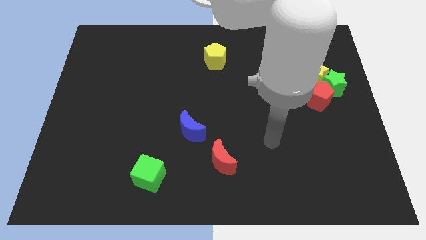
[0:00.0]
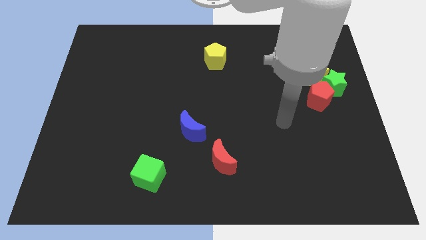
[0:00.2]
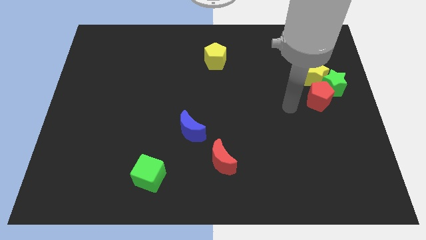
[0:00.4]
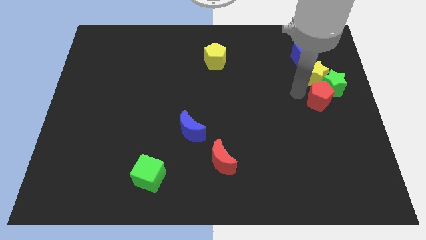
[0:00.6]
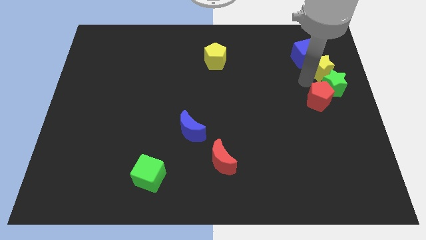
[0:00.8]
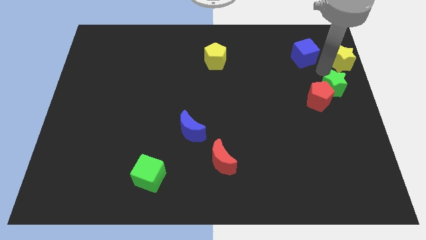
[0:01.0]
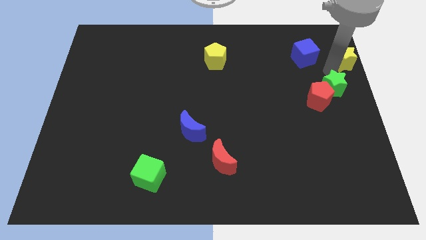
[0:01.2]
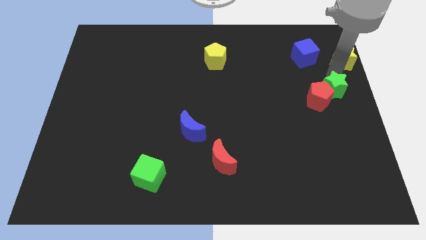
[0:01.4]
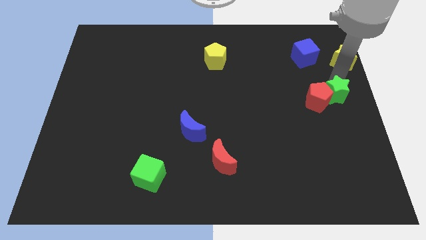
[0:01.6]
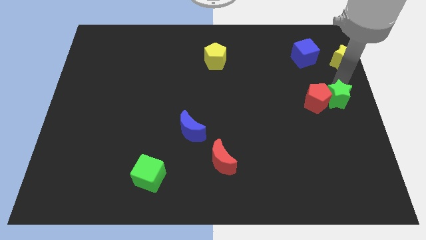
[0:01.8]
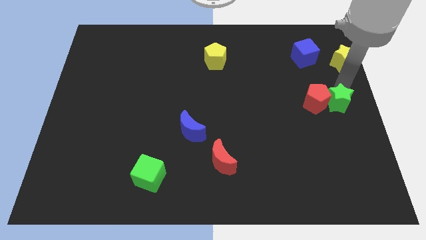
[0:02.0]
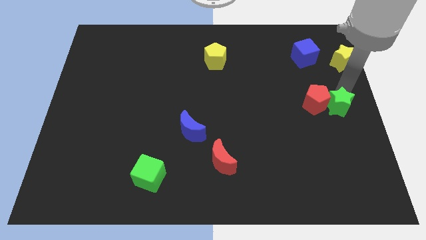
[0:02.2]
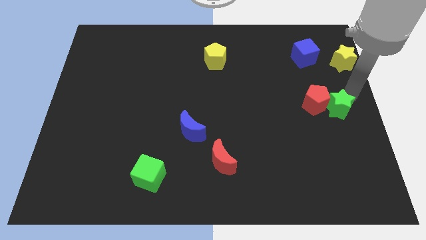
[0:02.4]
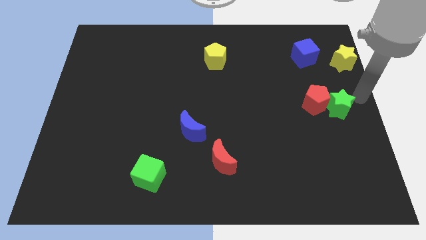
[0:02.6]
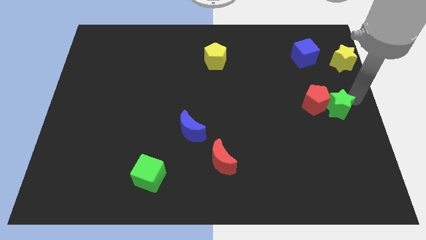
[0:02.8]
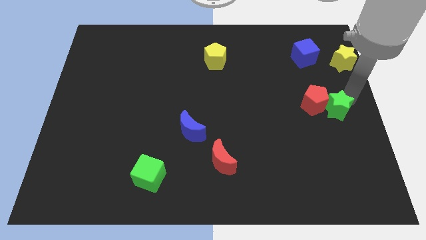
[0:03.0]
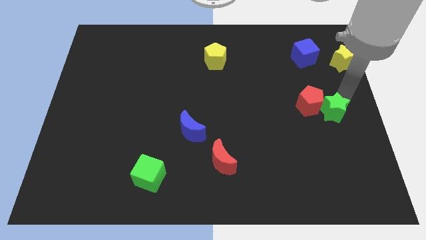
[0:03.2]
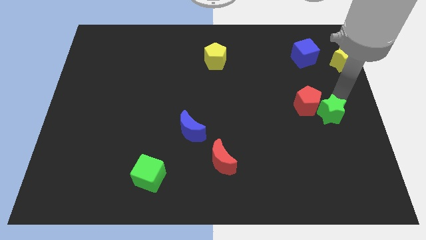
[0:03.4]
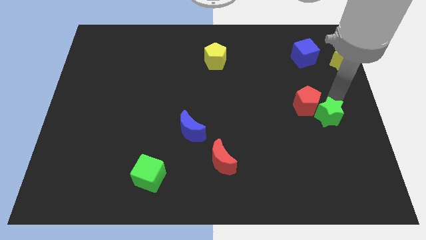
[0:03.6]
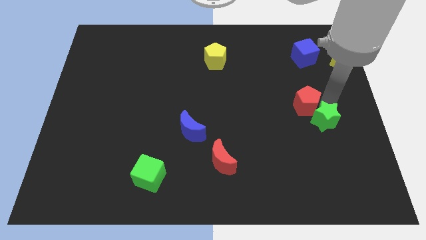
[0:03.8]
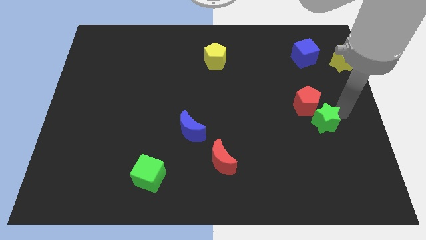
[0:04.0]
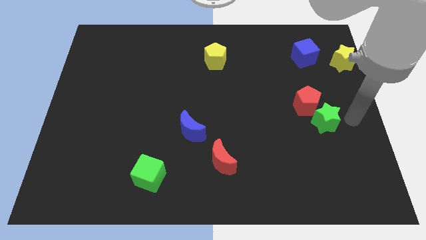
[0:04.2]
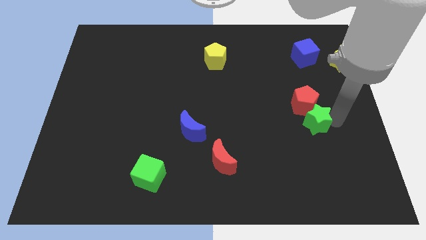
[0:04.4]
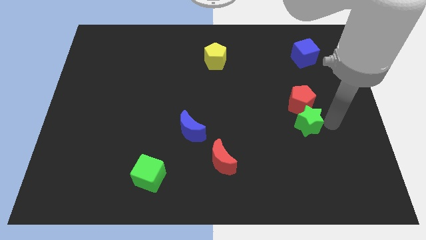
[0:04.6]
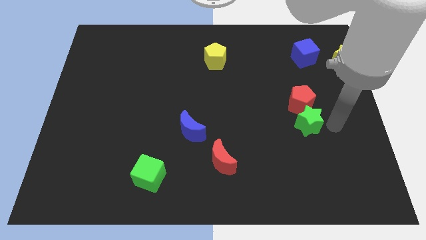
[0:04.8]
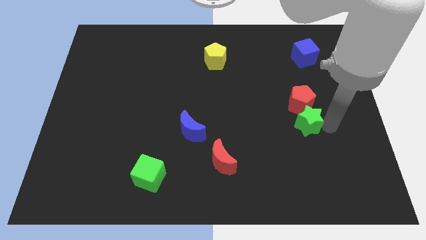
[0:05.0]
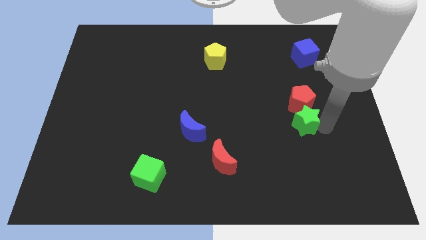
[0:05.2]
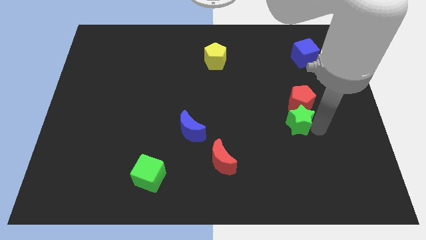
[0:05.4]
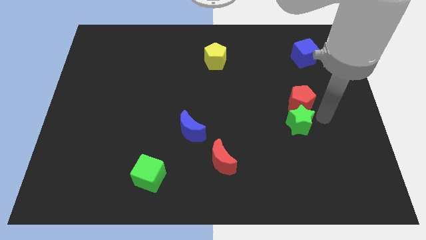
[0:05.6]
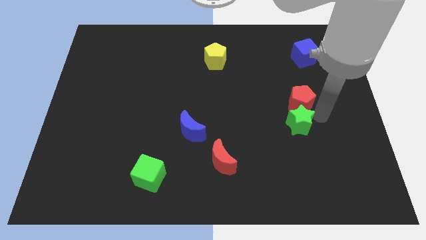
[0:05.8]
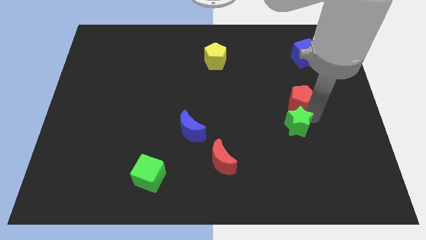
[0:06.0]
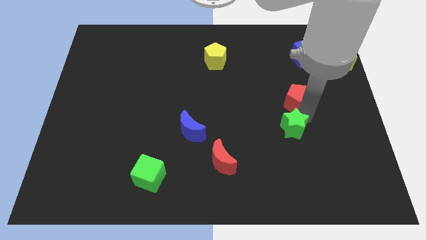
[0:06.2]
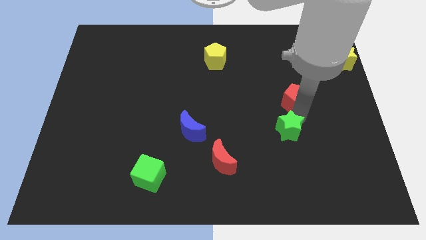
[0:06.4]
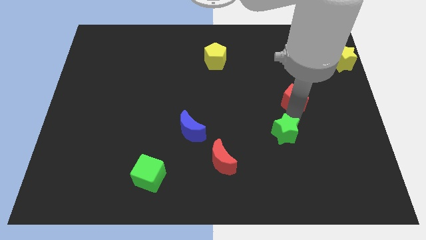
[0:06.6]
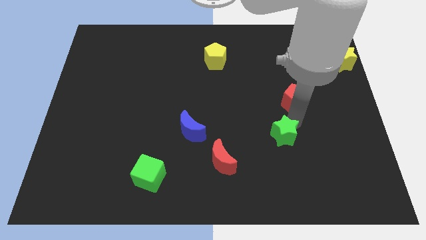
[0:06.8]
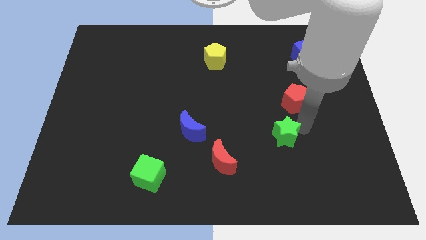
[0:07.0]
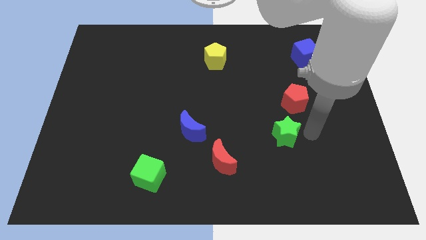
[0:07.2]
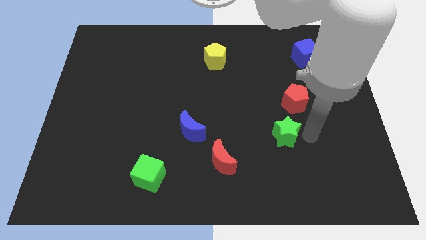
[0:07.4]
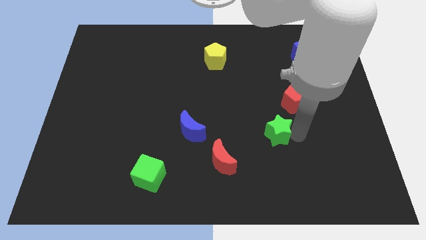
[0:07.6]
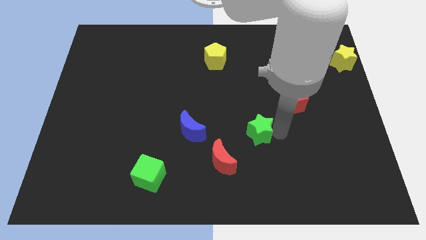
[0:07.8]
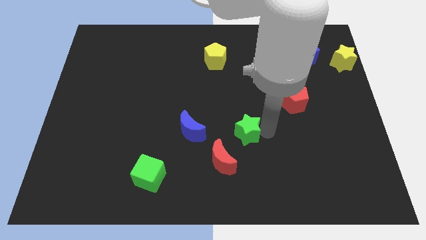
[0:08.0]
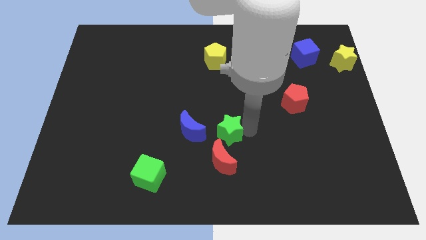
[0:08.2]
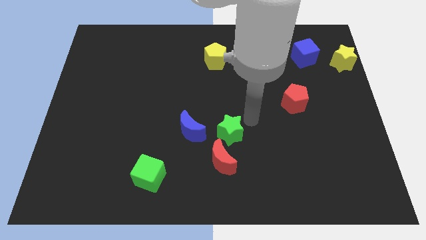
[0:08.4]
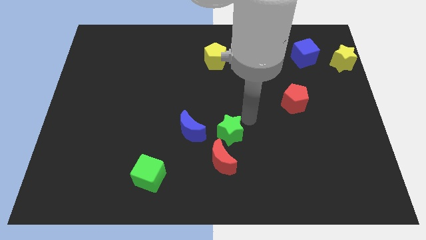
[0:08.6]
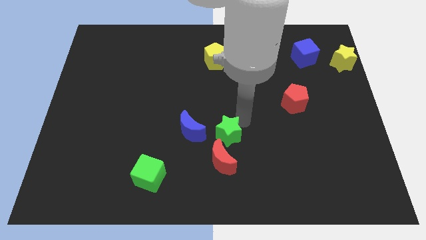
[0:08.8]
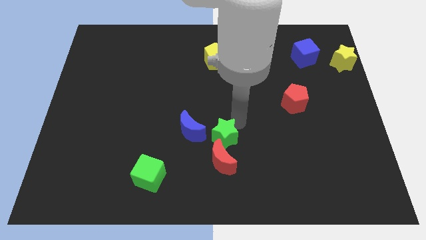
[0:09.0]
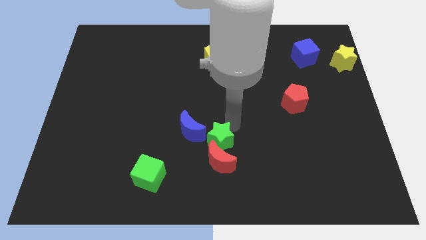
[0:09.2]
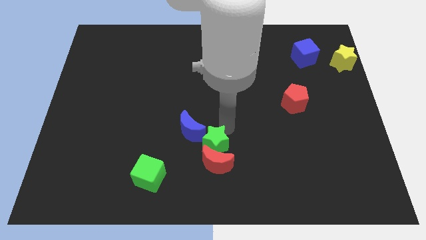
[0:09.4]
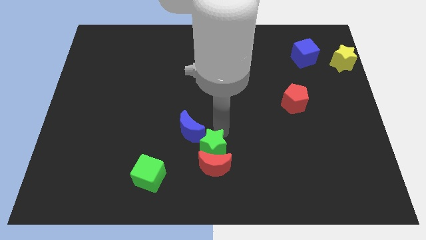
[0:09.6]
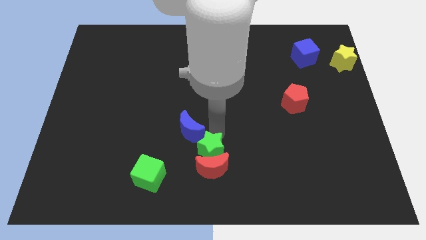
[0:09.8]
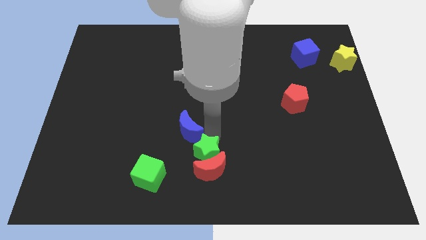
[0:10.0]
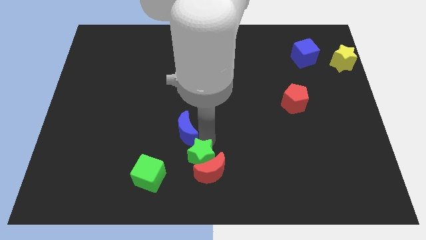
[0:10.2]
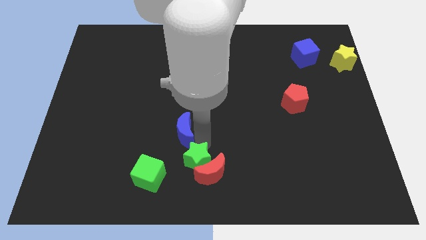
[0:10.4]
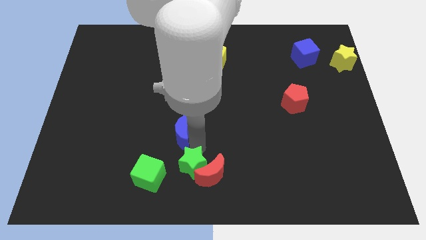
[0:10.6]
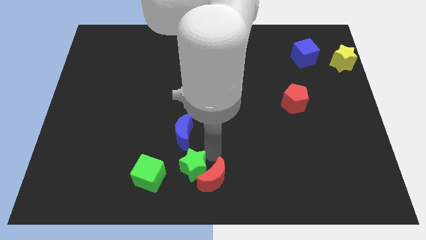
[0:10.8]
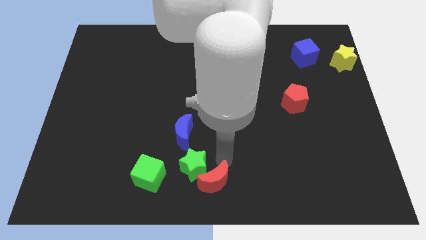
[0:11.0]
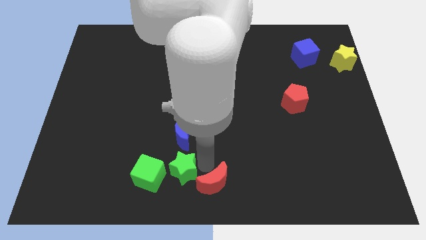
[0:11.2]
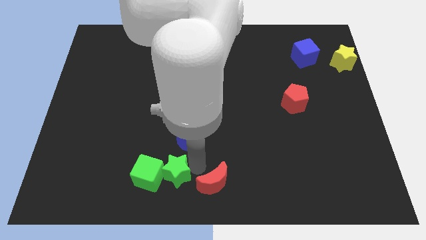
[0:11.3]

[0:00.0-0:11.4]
move the green star to the green cube

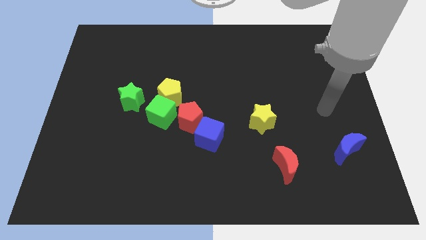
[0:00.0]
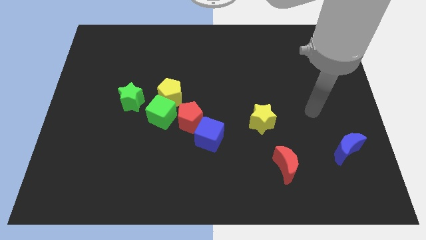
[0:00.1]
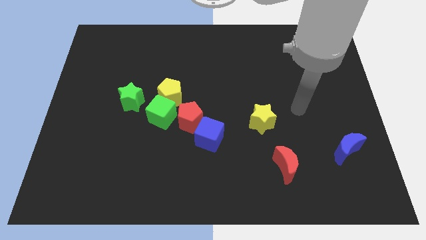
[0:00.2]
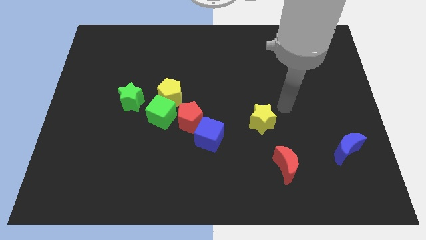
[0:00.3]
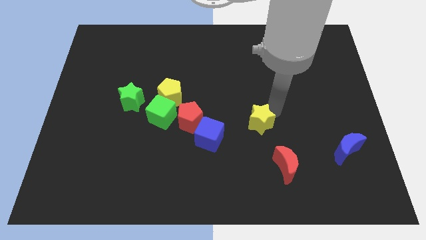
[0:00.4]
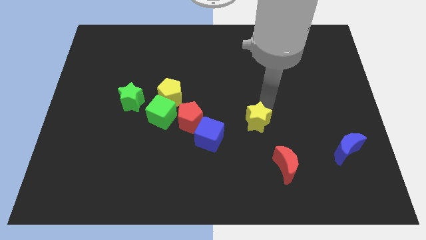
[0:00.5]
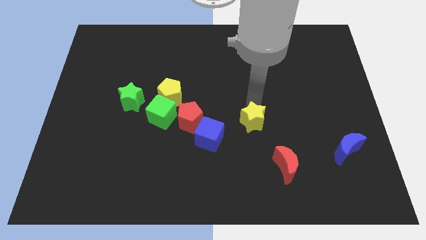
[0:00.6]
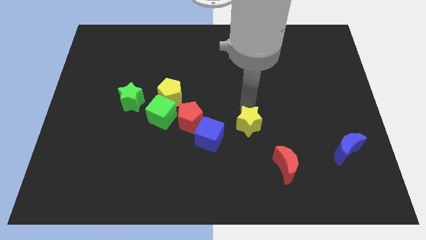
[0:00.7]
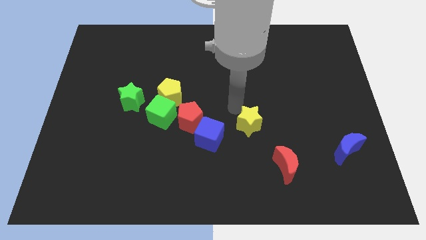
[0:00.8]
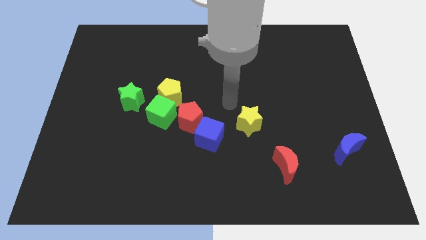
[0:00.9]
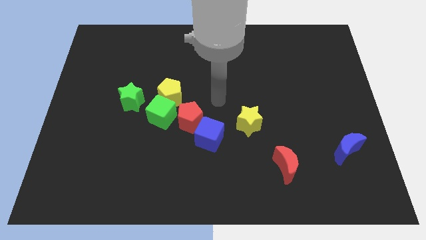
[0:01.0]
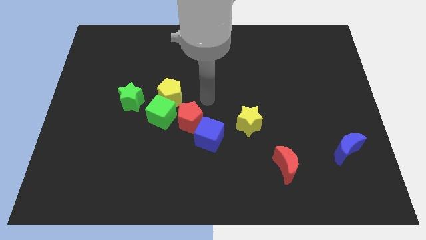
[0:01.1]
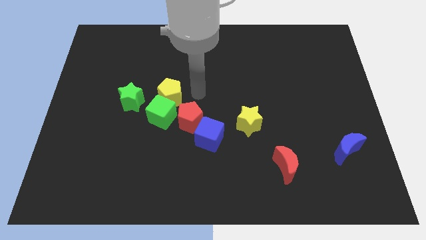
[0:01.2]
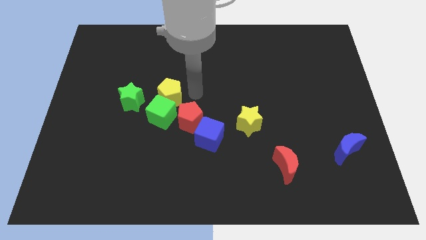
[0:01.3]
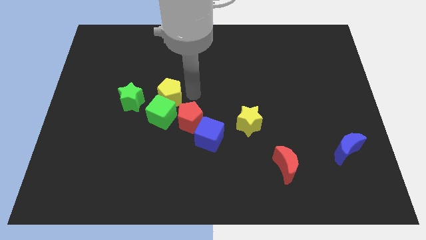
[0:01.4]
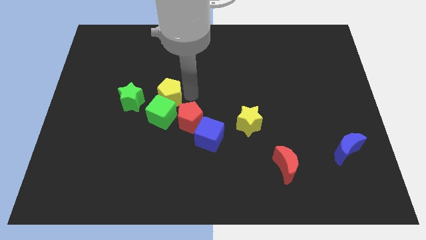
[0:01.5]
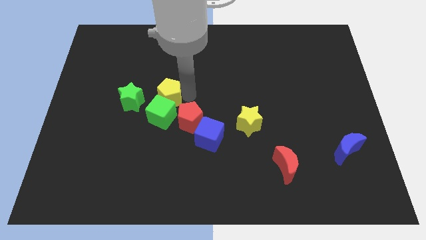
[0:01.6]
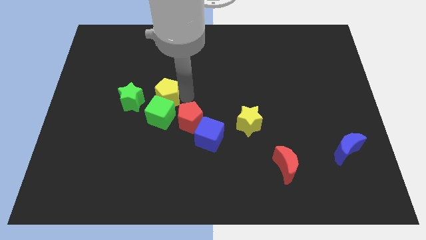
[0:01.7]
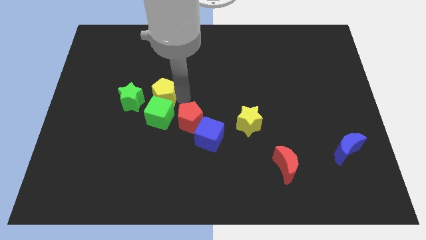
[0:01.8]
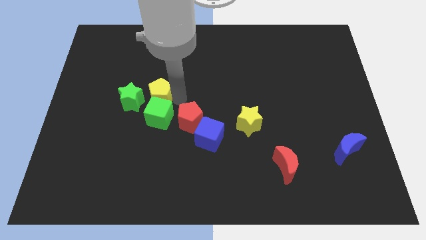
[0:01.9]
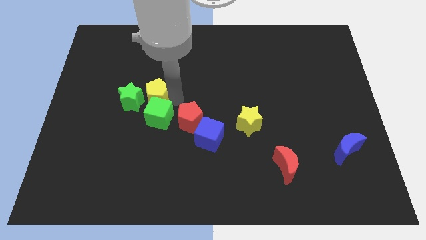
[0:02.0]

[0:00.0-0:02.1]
put the yellow pentagon to the green star

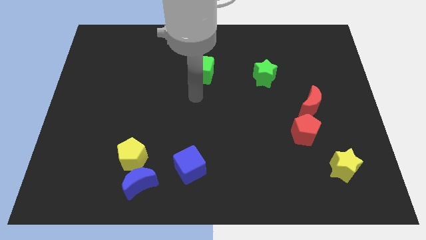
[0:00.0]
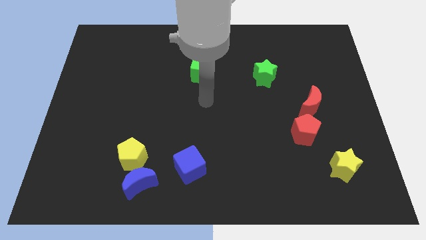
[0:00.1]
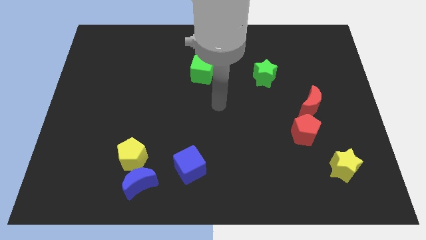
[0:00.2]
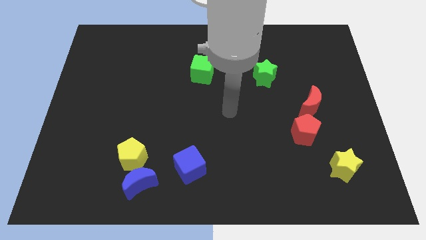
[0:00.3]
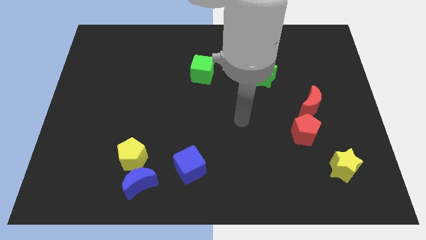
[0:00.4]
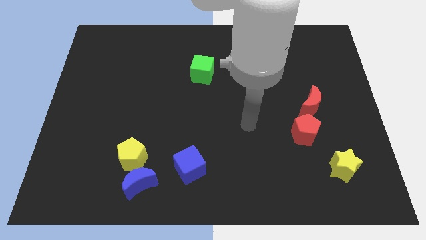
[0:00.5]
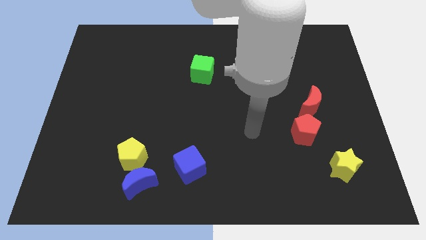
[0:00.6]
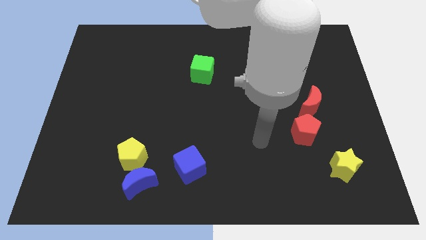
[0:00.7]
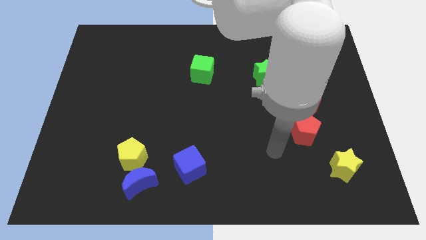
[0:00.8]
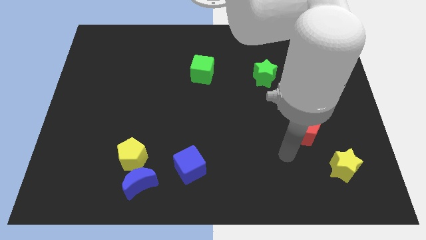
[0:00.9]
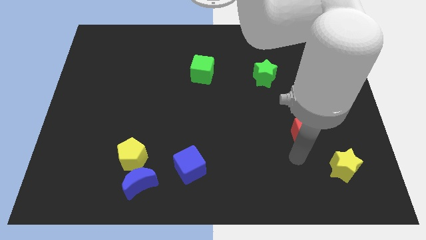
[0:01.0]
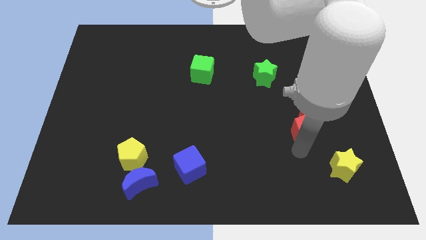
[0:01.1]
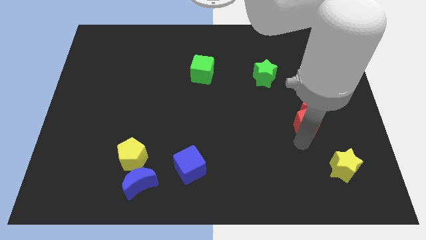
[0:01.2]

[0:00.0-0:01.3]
push the red pentagon to the red moon
